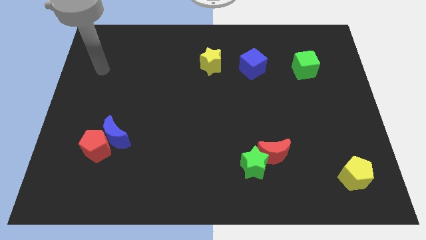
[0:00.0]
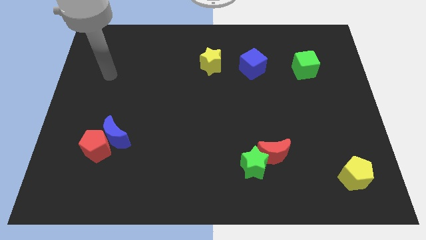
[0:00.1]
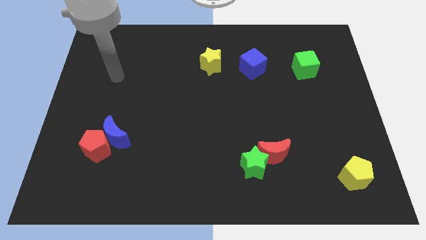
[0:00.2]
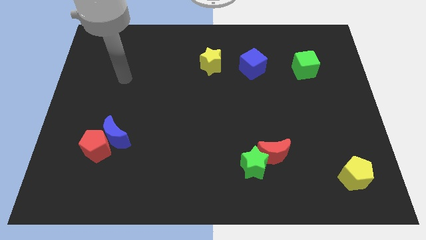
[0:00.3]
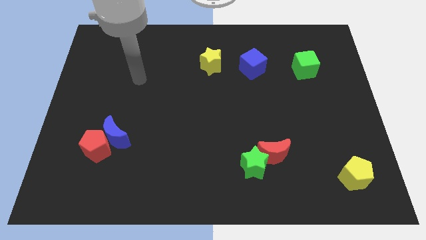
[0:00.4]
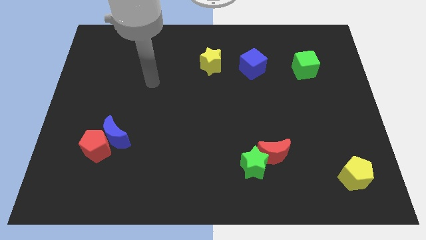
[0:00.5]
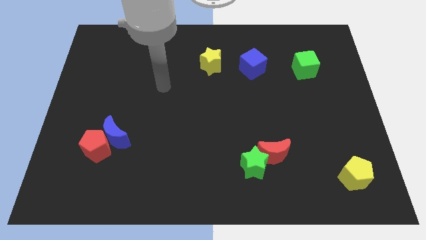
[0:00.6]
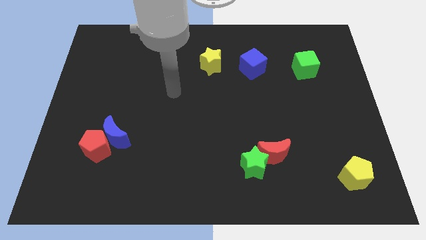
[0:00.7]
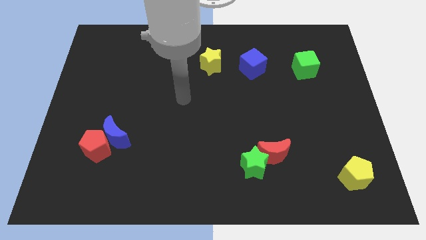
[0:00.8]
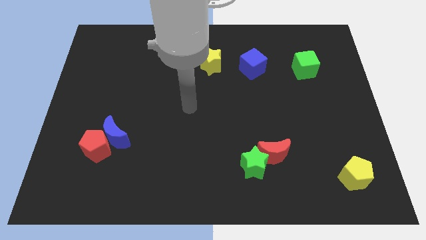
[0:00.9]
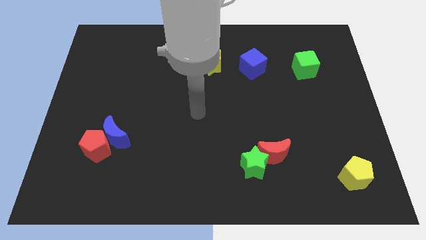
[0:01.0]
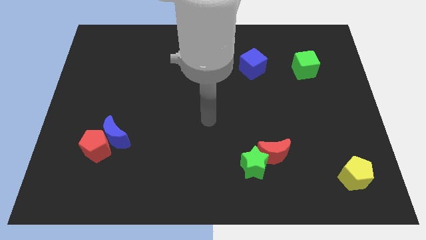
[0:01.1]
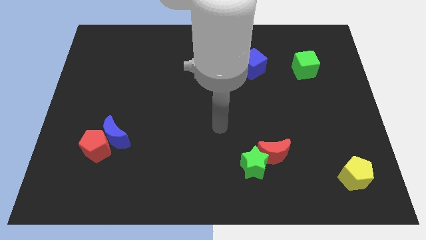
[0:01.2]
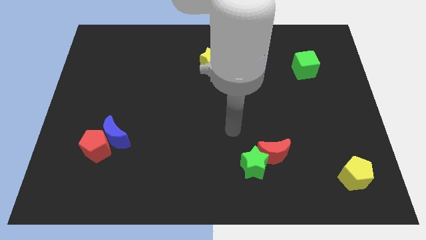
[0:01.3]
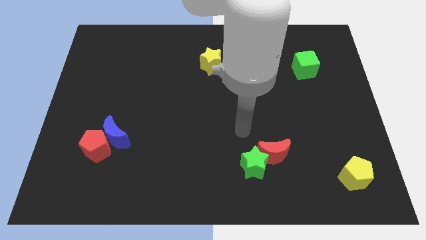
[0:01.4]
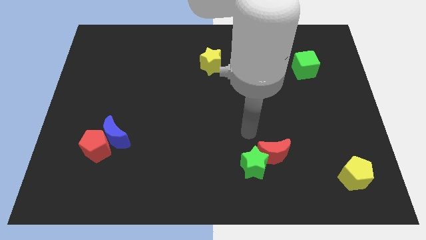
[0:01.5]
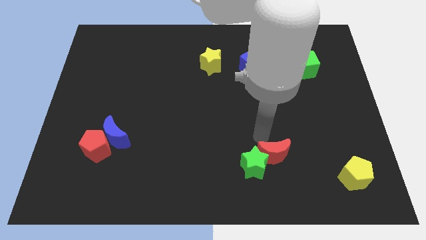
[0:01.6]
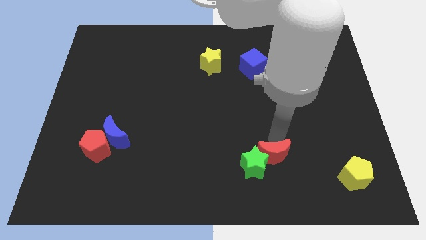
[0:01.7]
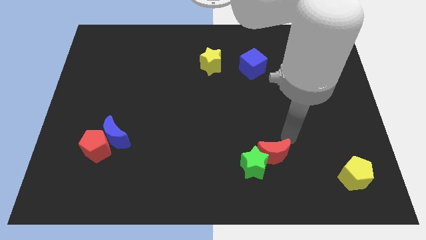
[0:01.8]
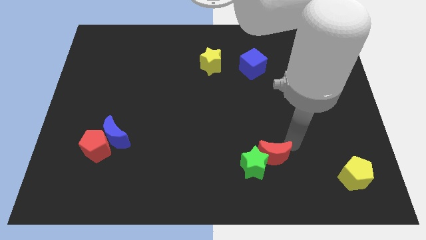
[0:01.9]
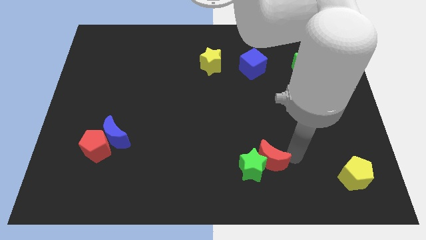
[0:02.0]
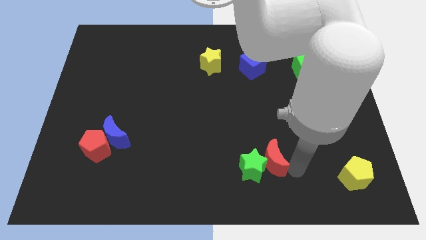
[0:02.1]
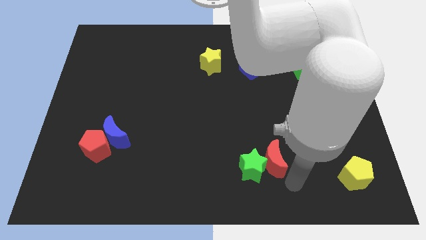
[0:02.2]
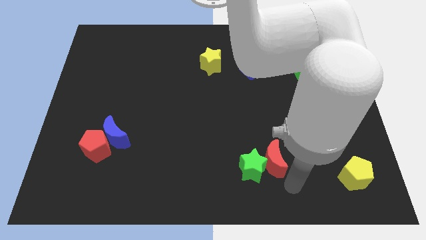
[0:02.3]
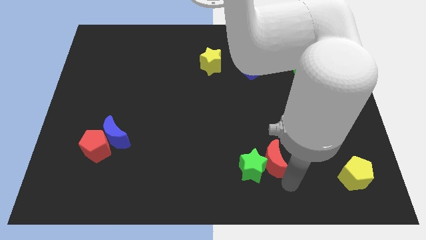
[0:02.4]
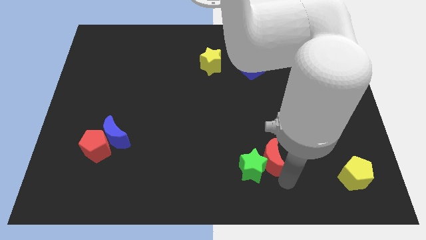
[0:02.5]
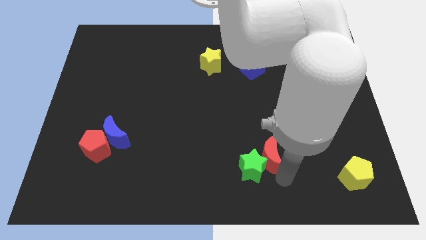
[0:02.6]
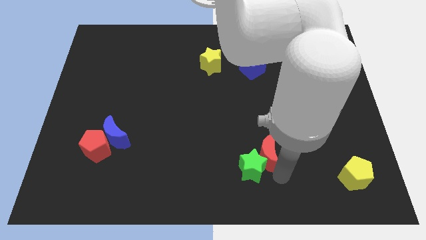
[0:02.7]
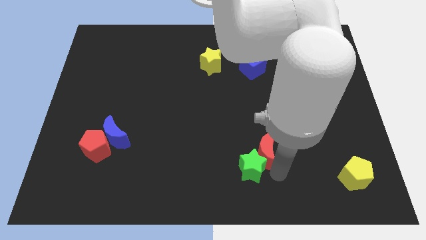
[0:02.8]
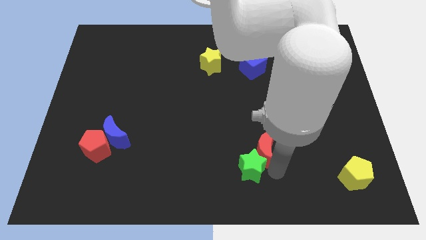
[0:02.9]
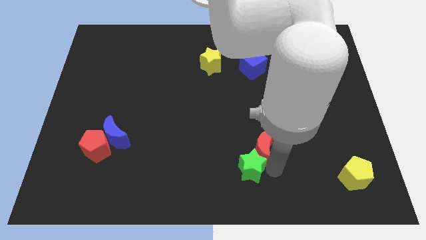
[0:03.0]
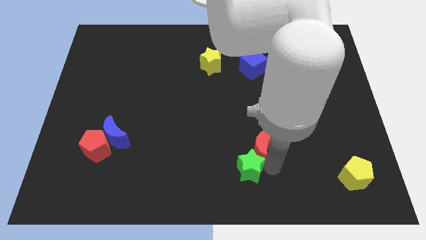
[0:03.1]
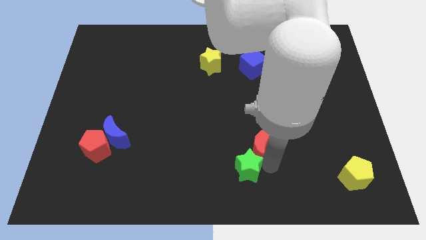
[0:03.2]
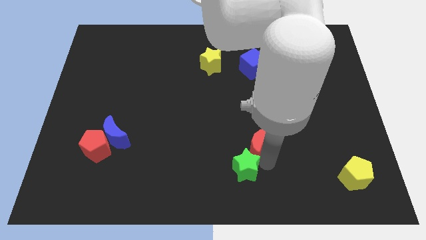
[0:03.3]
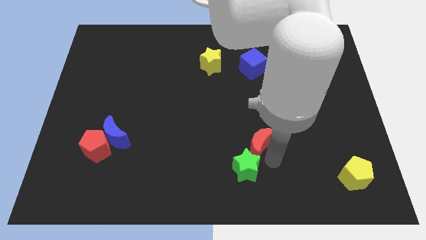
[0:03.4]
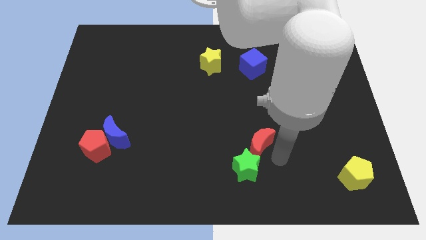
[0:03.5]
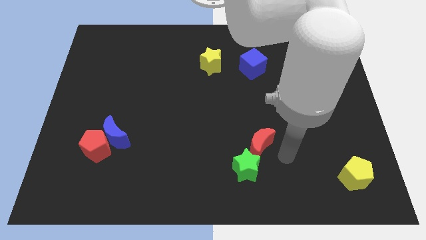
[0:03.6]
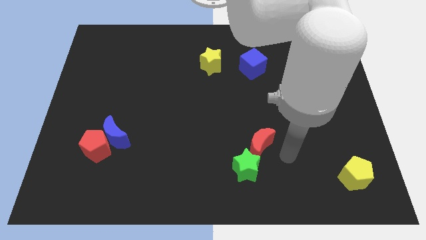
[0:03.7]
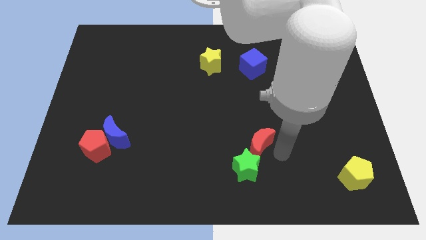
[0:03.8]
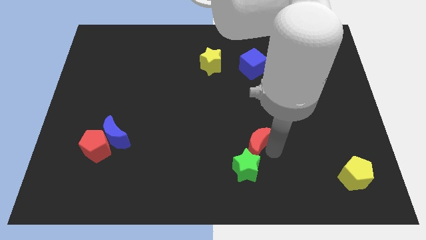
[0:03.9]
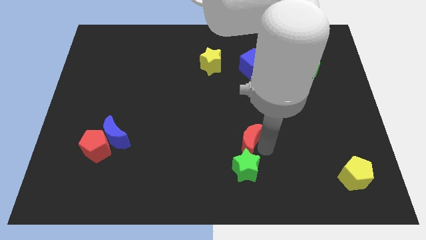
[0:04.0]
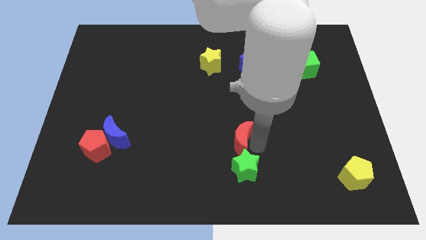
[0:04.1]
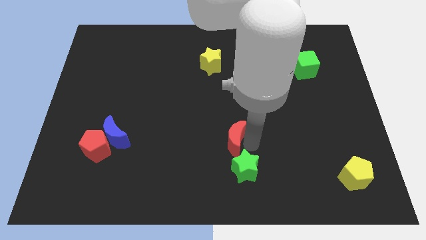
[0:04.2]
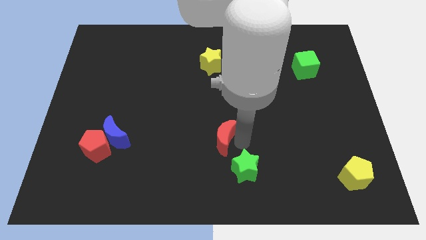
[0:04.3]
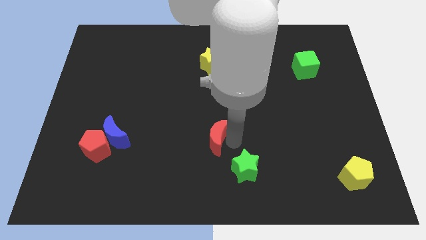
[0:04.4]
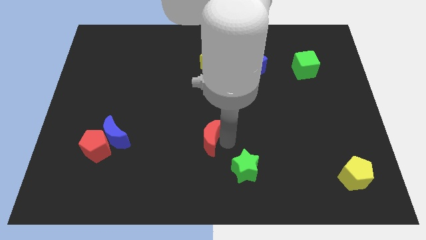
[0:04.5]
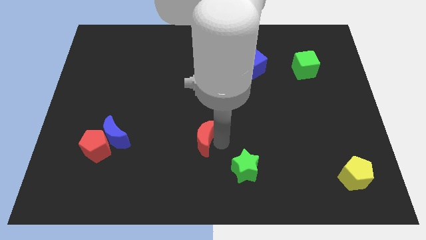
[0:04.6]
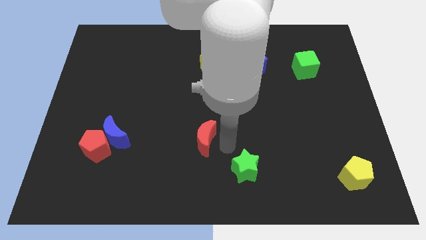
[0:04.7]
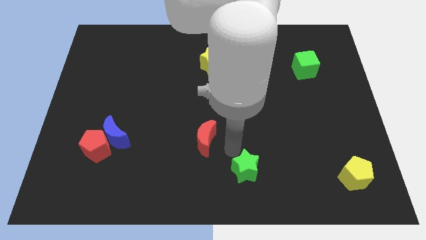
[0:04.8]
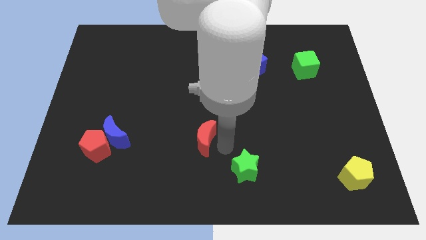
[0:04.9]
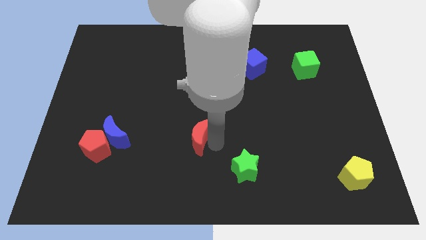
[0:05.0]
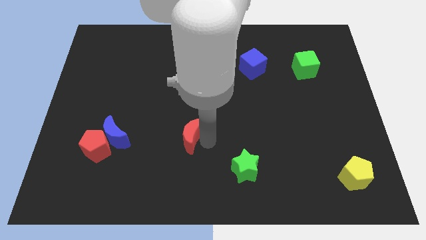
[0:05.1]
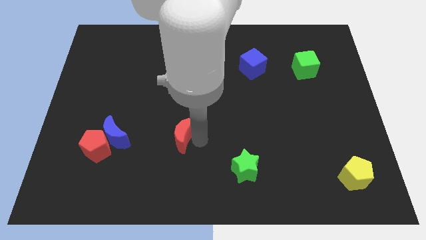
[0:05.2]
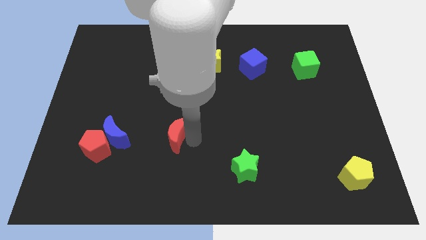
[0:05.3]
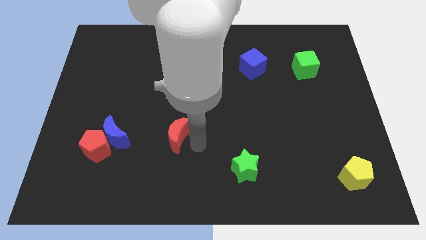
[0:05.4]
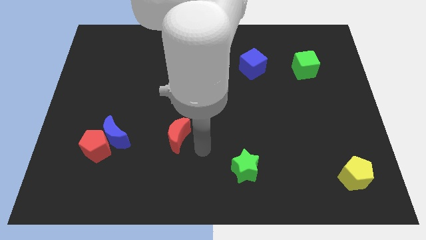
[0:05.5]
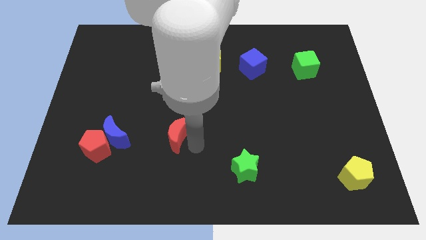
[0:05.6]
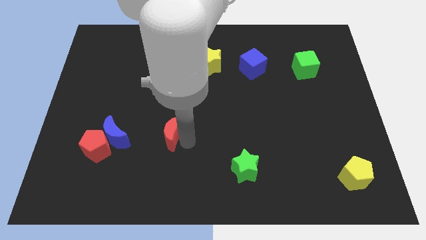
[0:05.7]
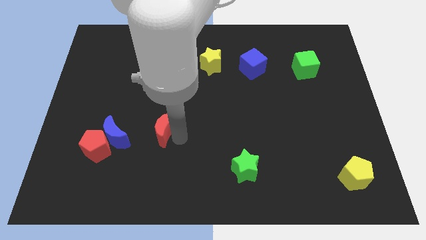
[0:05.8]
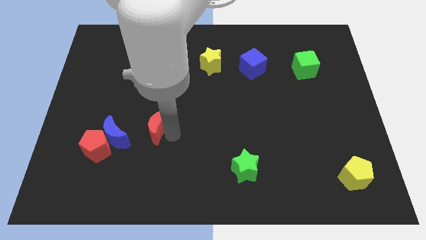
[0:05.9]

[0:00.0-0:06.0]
move the red moon to the top right of the blue moon

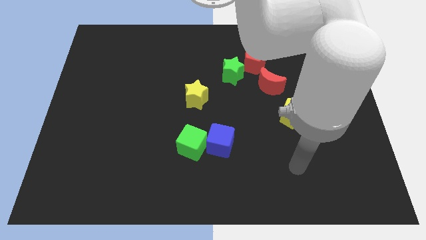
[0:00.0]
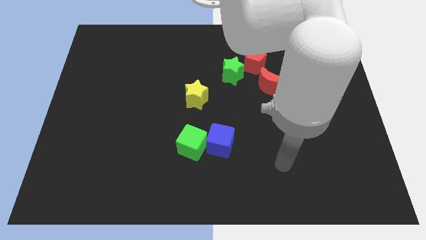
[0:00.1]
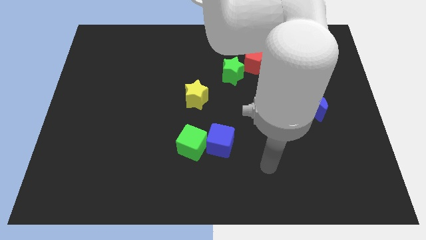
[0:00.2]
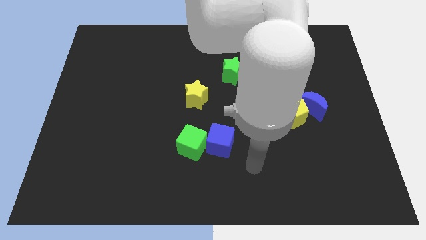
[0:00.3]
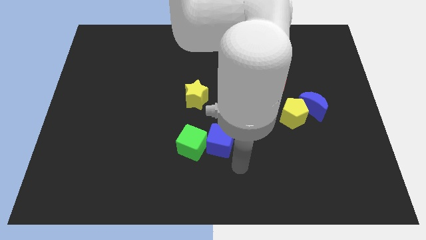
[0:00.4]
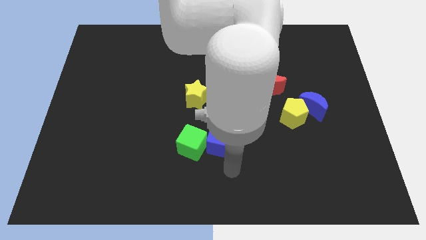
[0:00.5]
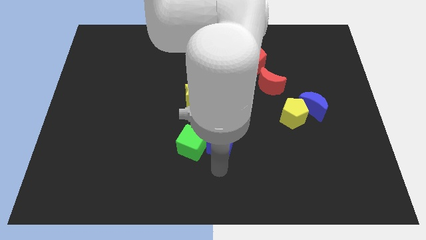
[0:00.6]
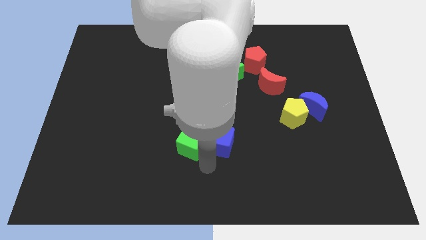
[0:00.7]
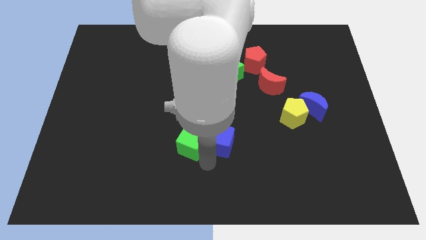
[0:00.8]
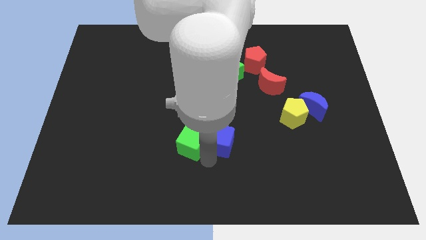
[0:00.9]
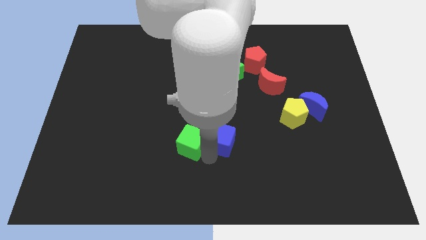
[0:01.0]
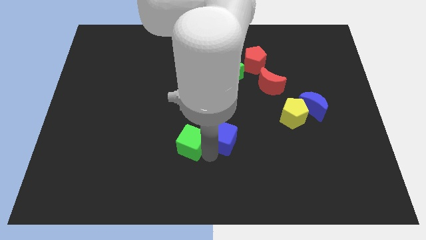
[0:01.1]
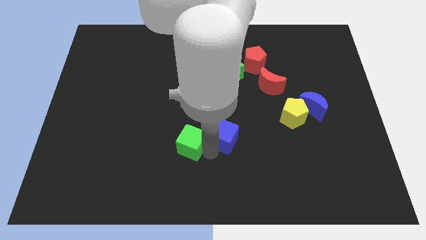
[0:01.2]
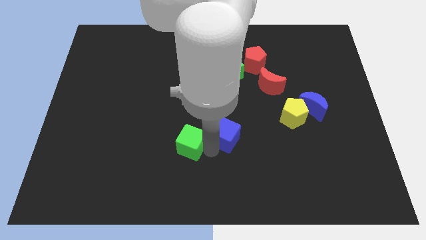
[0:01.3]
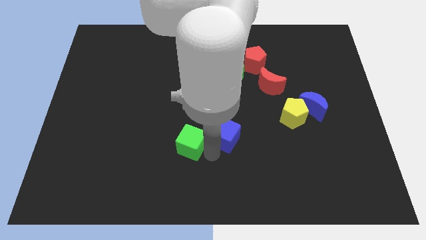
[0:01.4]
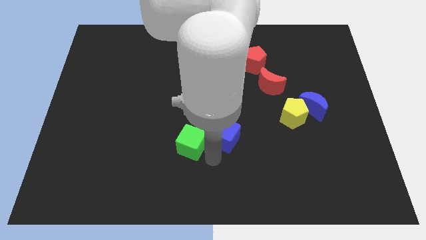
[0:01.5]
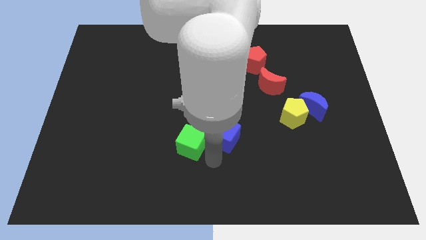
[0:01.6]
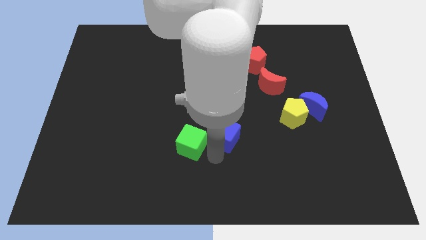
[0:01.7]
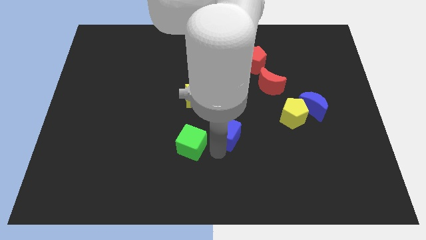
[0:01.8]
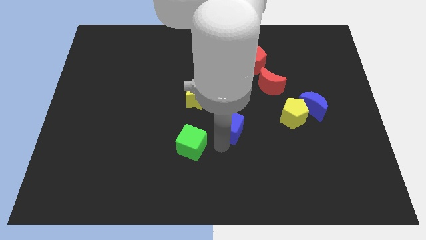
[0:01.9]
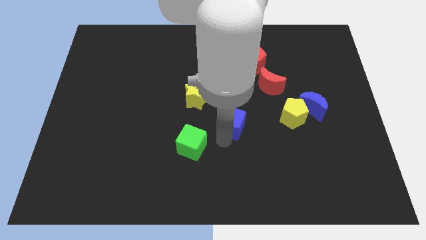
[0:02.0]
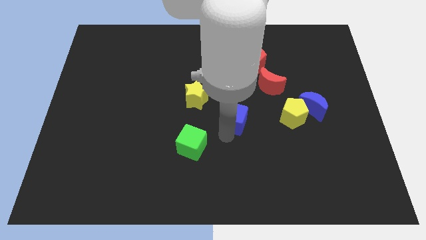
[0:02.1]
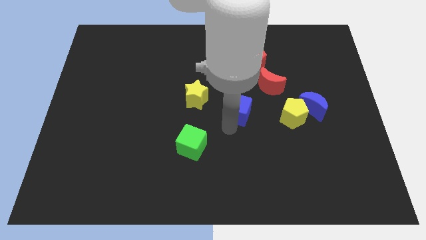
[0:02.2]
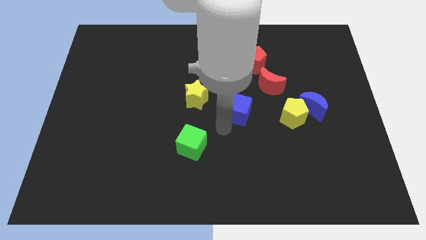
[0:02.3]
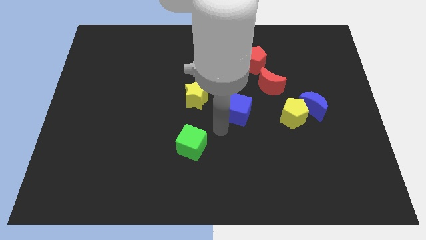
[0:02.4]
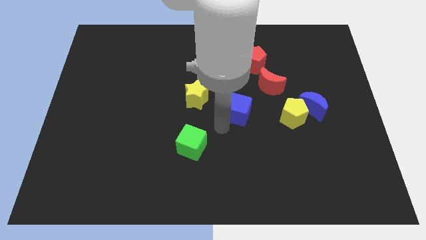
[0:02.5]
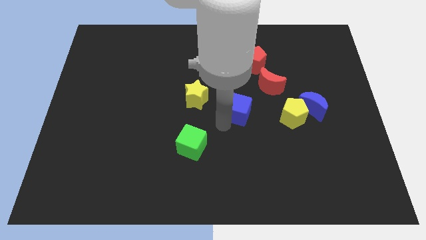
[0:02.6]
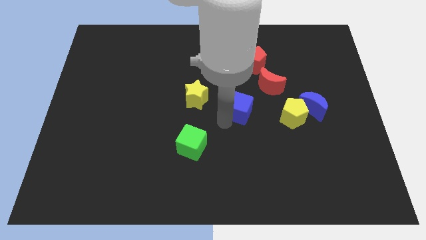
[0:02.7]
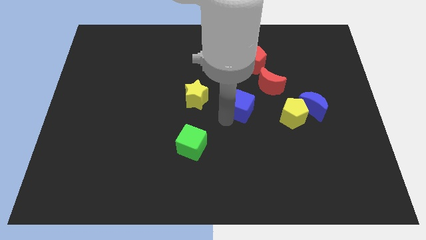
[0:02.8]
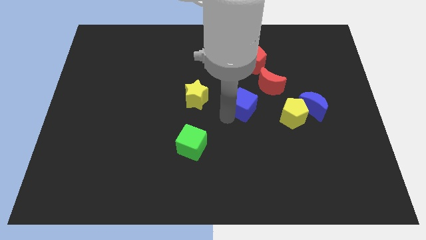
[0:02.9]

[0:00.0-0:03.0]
put the blue cube below the red pentagon
